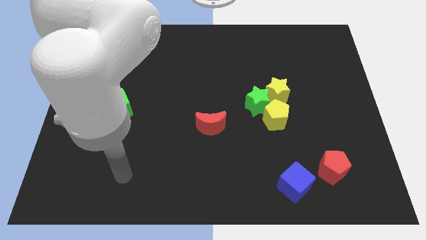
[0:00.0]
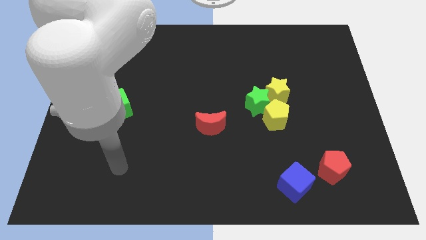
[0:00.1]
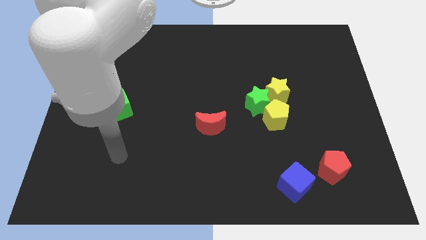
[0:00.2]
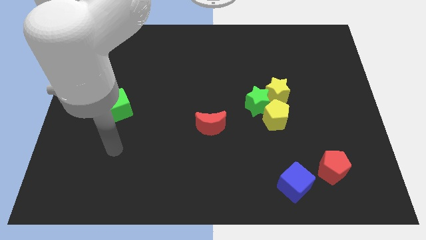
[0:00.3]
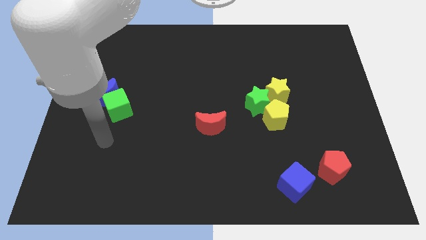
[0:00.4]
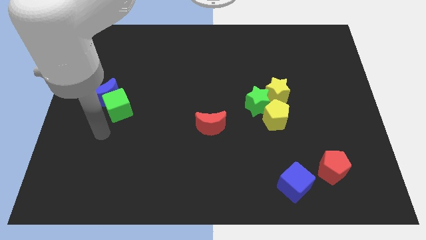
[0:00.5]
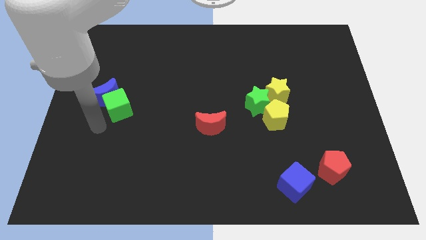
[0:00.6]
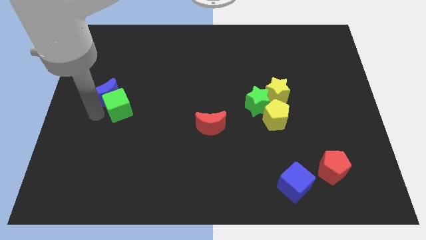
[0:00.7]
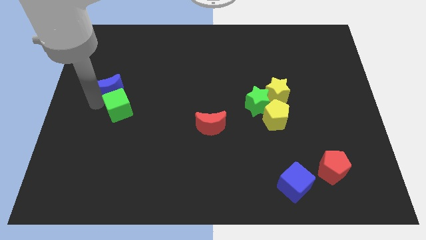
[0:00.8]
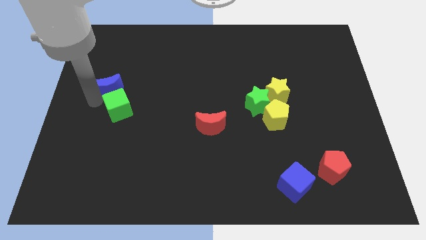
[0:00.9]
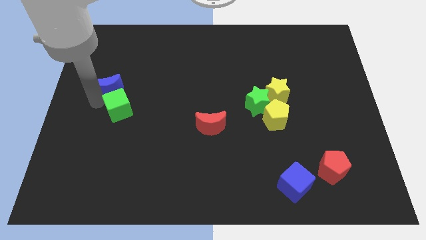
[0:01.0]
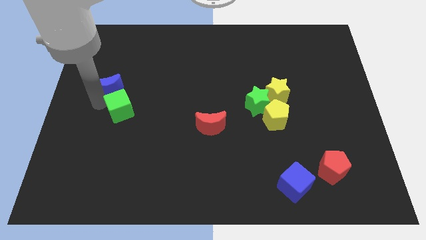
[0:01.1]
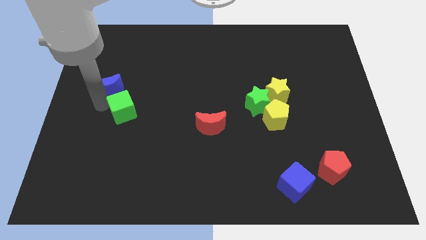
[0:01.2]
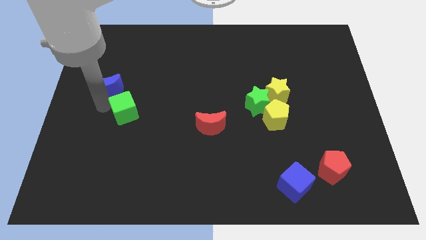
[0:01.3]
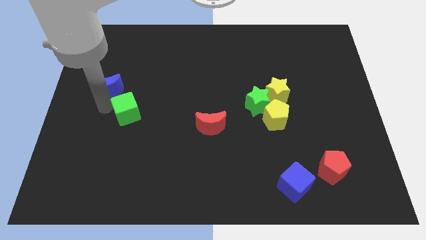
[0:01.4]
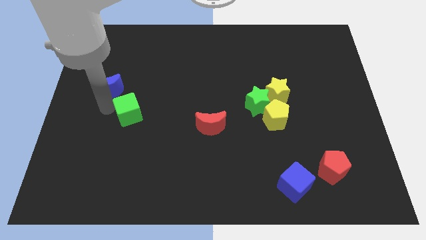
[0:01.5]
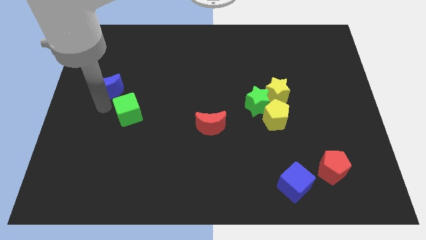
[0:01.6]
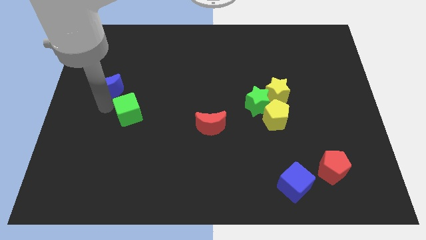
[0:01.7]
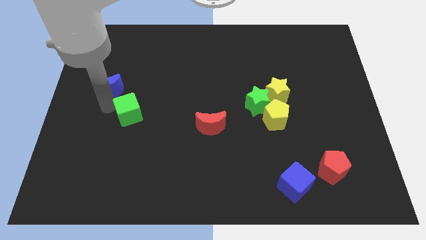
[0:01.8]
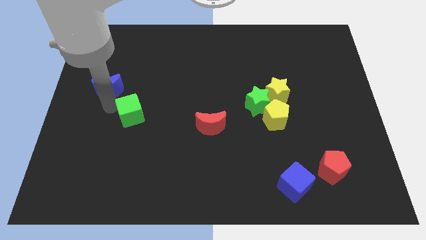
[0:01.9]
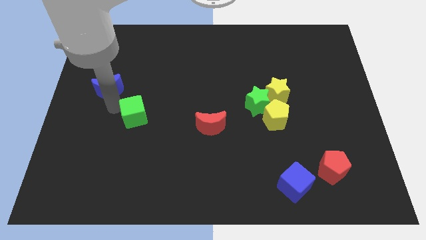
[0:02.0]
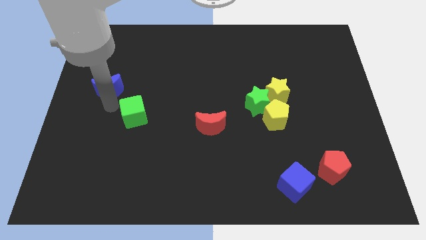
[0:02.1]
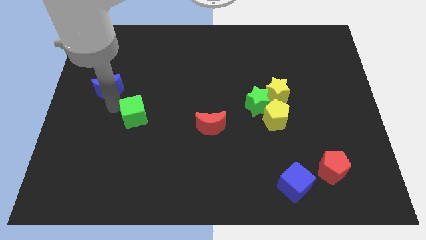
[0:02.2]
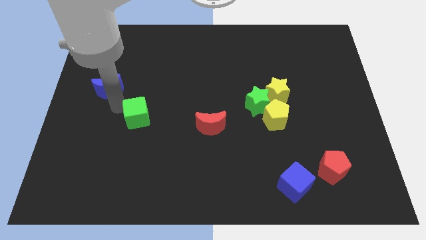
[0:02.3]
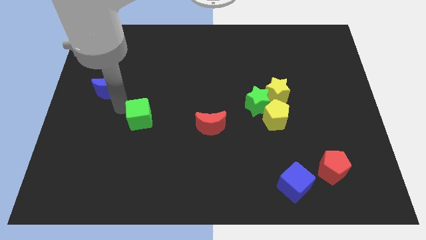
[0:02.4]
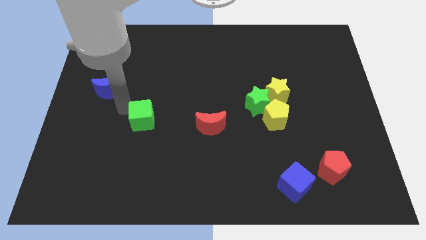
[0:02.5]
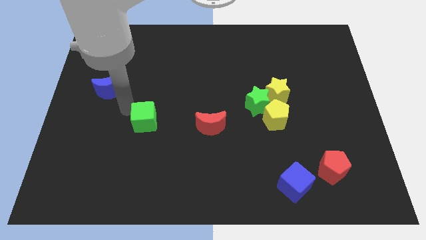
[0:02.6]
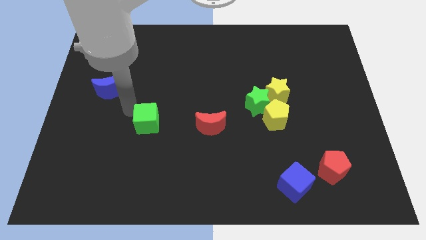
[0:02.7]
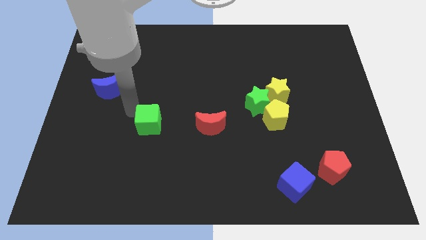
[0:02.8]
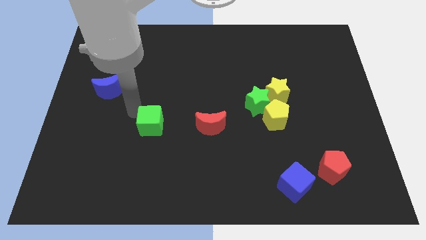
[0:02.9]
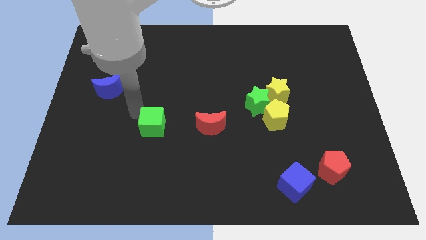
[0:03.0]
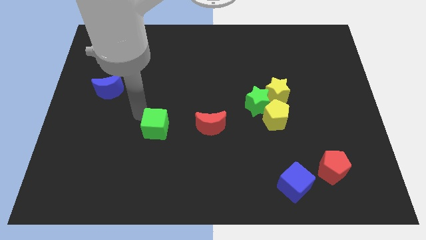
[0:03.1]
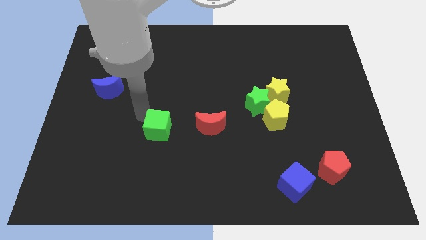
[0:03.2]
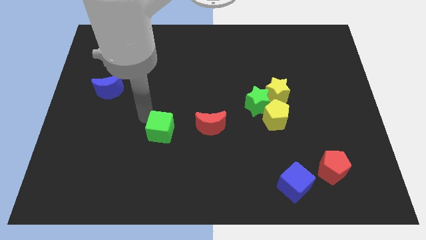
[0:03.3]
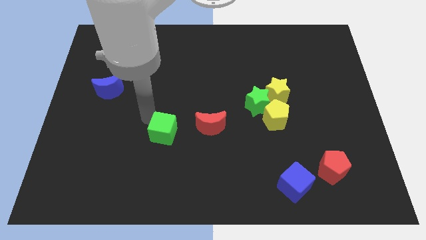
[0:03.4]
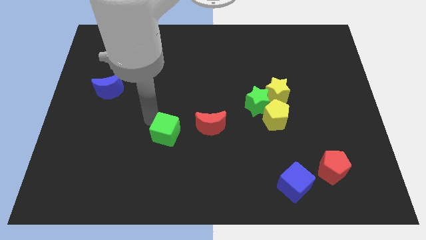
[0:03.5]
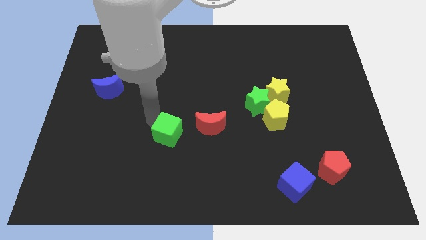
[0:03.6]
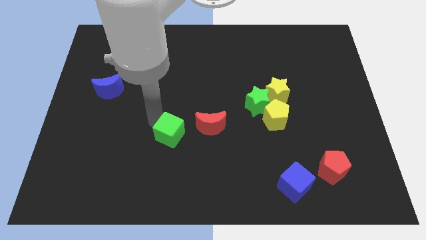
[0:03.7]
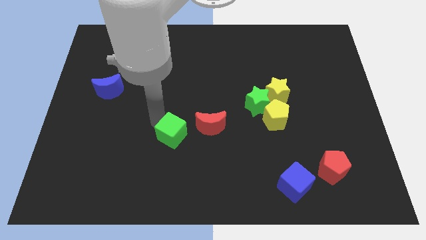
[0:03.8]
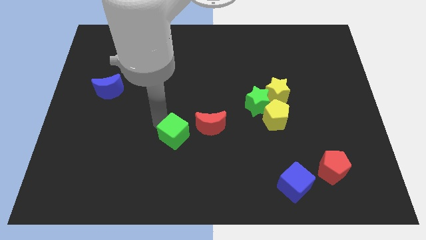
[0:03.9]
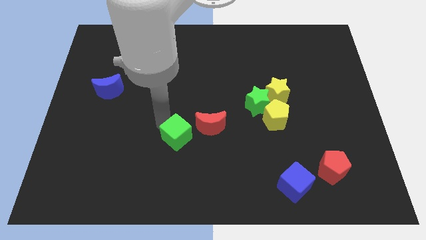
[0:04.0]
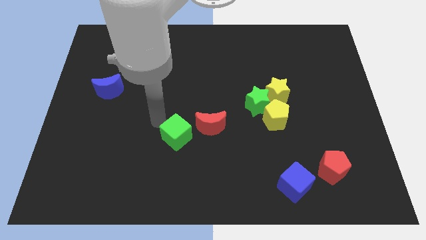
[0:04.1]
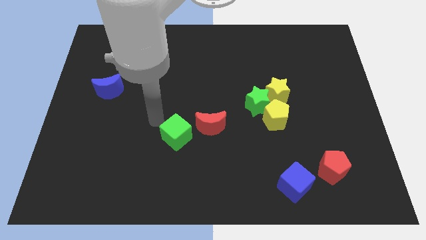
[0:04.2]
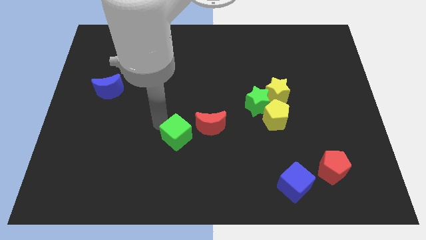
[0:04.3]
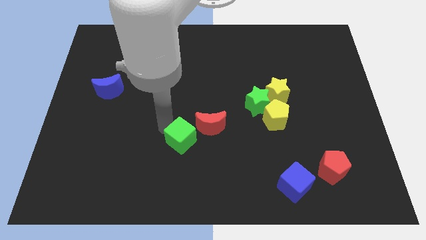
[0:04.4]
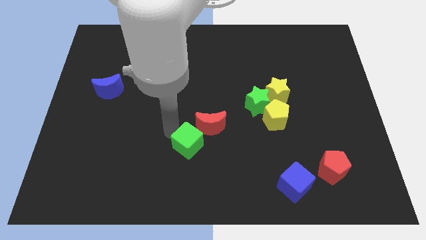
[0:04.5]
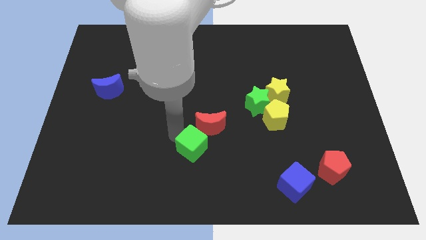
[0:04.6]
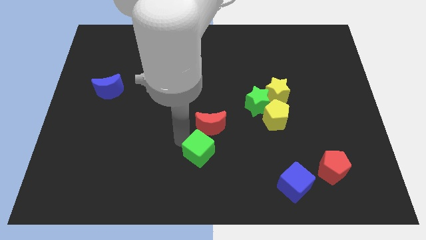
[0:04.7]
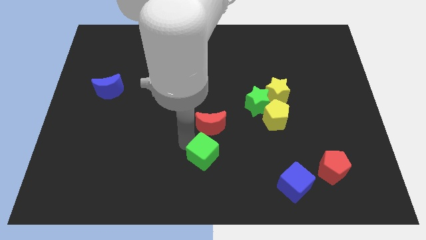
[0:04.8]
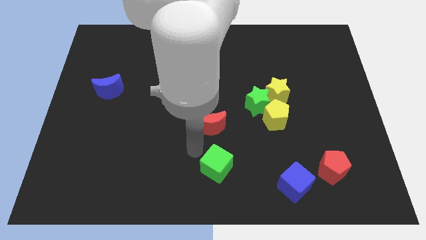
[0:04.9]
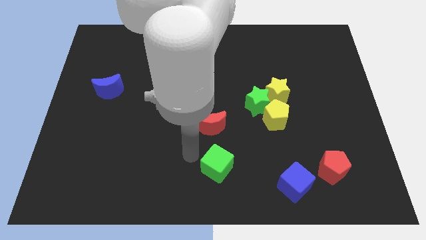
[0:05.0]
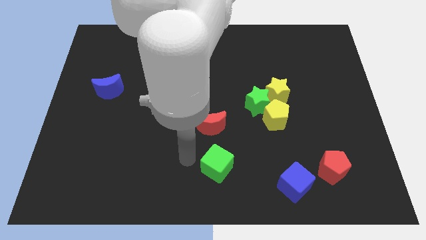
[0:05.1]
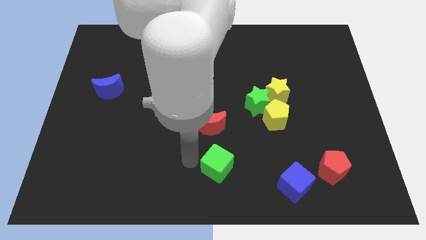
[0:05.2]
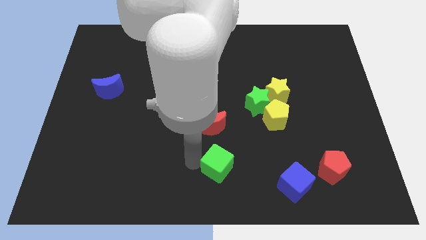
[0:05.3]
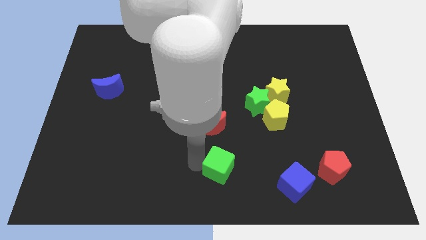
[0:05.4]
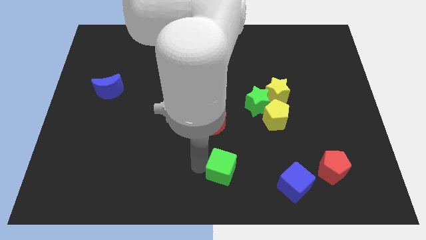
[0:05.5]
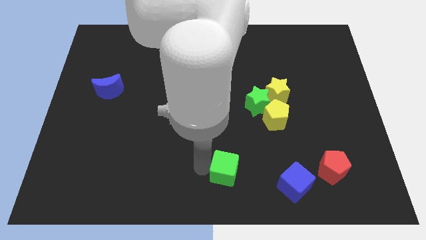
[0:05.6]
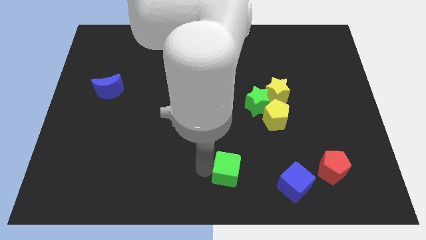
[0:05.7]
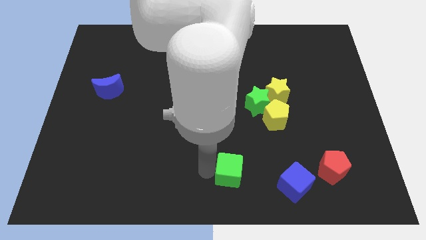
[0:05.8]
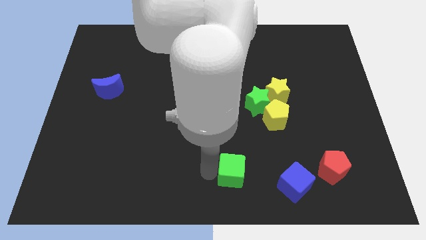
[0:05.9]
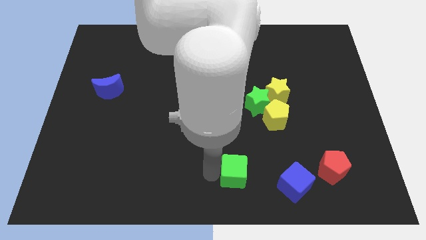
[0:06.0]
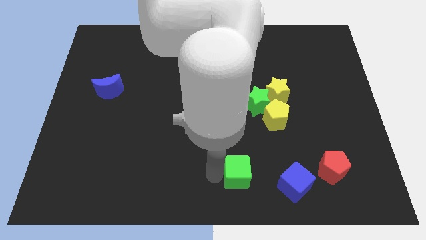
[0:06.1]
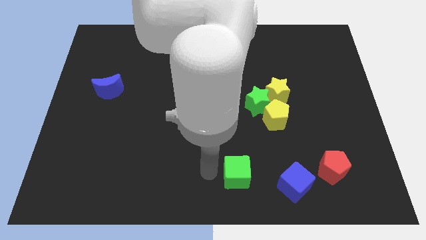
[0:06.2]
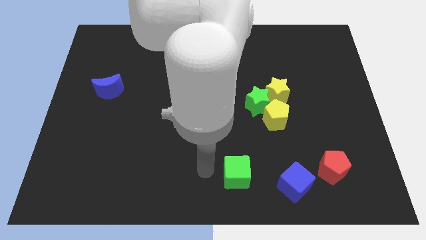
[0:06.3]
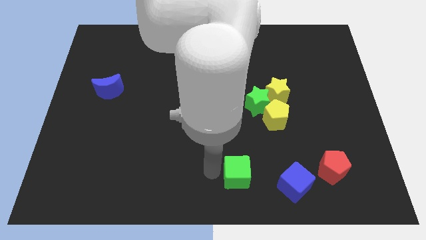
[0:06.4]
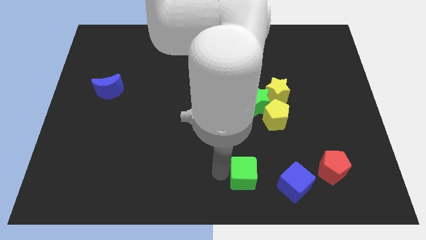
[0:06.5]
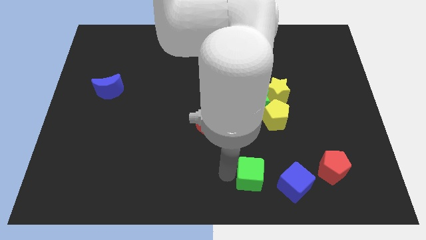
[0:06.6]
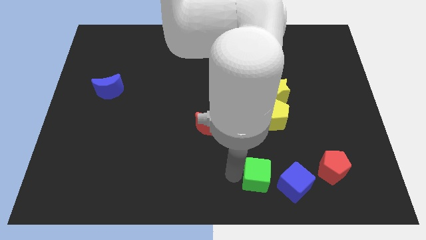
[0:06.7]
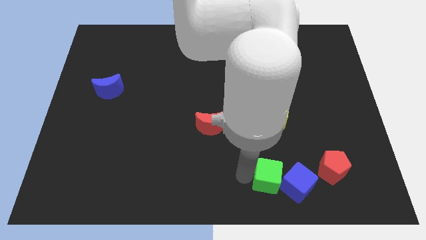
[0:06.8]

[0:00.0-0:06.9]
move the green cube towards the blue cube
